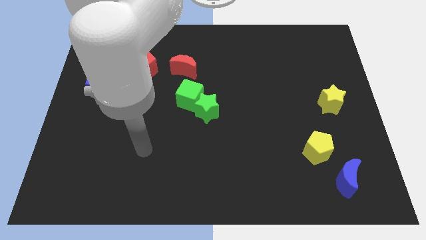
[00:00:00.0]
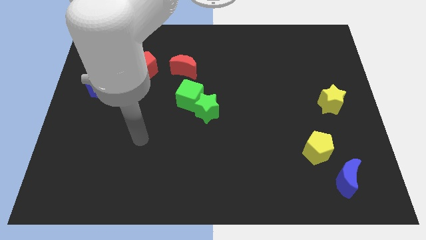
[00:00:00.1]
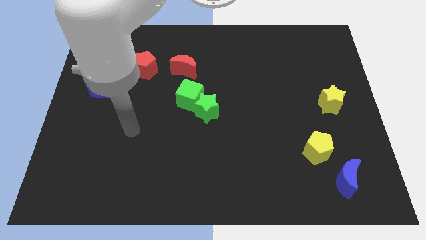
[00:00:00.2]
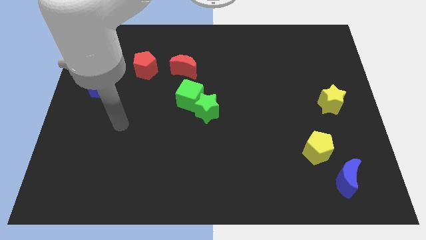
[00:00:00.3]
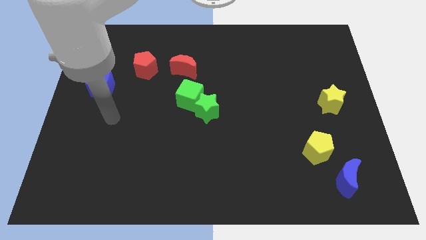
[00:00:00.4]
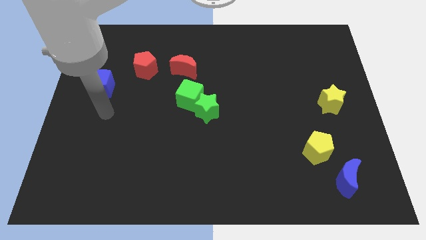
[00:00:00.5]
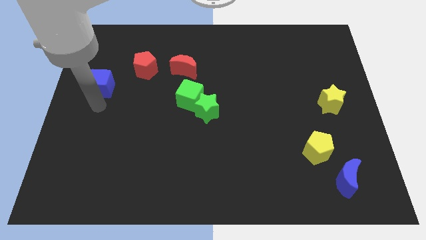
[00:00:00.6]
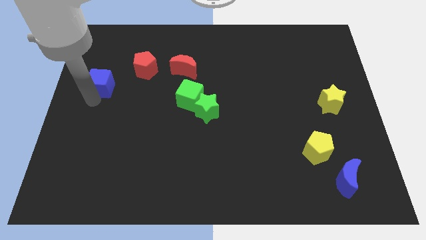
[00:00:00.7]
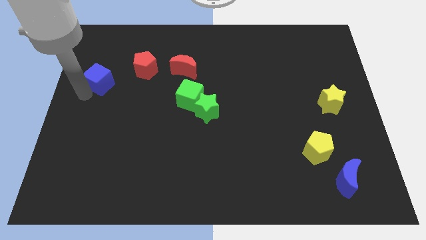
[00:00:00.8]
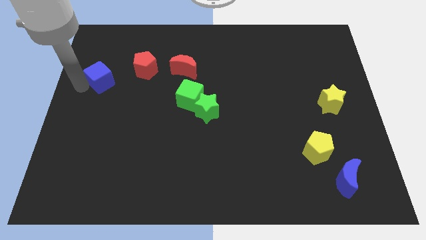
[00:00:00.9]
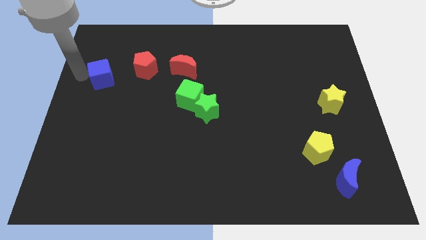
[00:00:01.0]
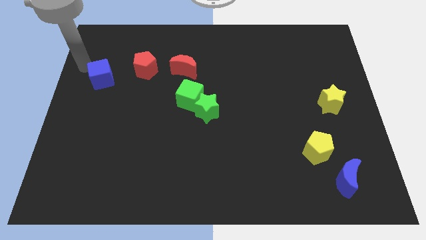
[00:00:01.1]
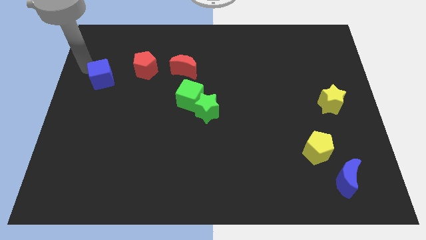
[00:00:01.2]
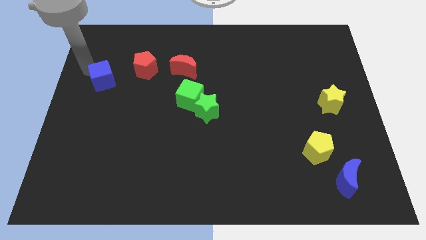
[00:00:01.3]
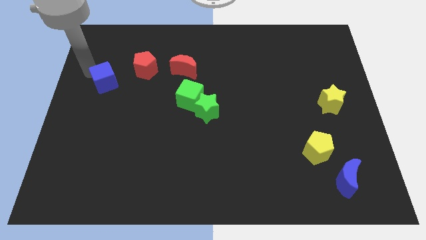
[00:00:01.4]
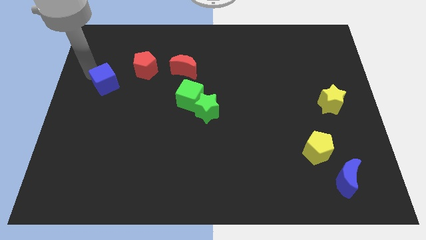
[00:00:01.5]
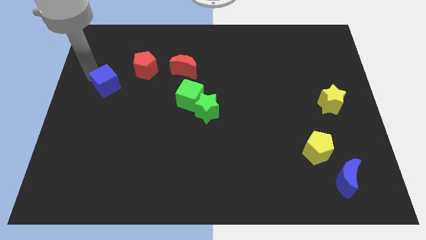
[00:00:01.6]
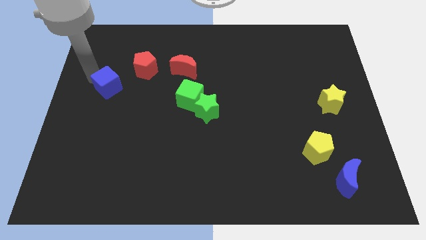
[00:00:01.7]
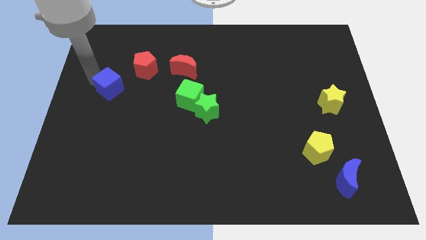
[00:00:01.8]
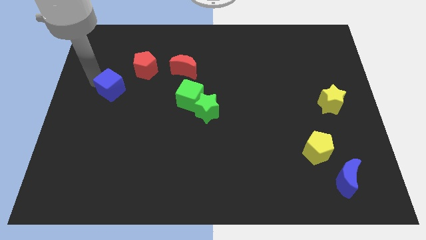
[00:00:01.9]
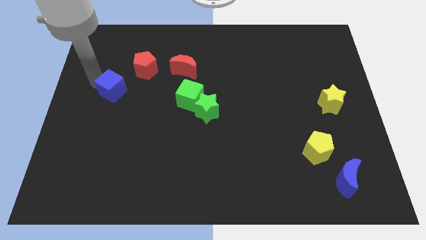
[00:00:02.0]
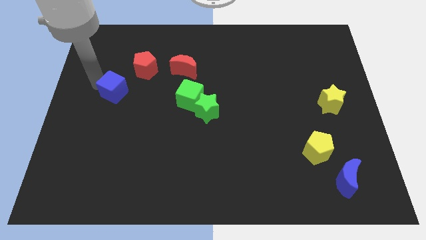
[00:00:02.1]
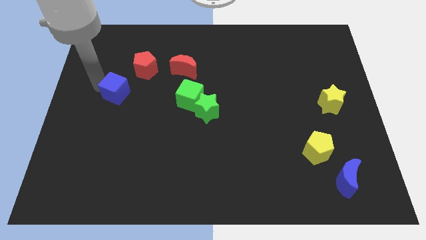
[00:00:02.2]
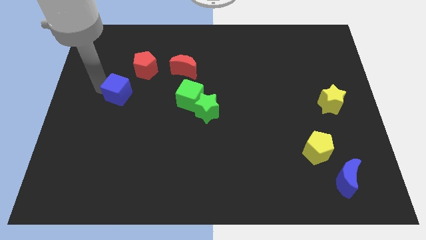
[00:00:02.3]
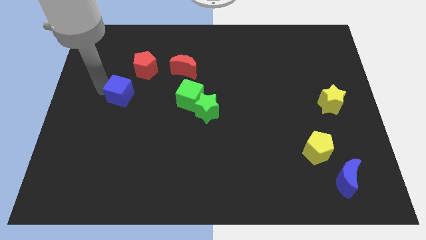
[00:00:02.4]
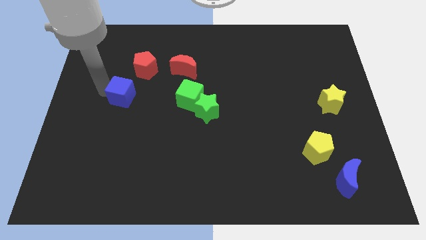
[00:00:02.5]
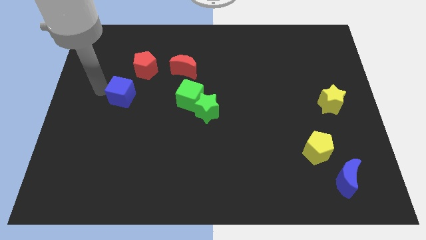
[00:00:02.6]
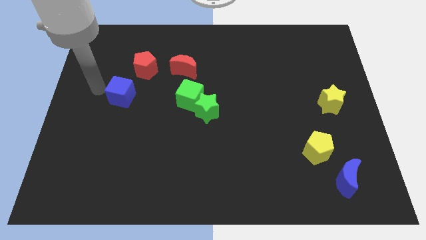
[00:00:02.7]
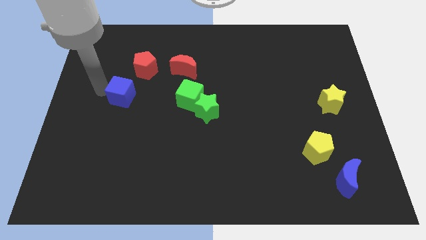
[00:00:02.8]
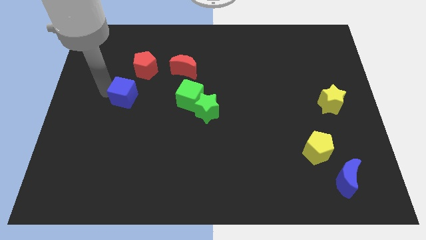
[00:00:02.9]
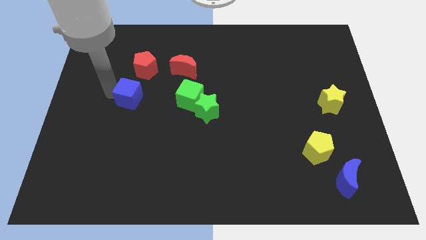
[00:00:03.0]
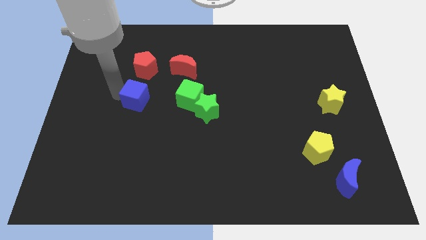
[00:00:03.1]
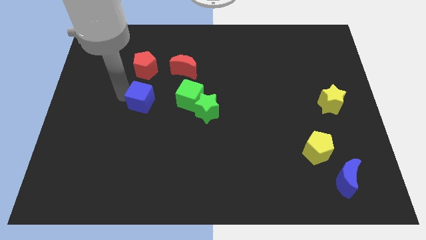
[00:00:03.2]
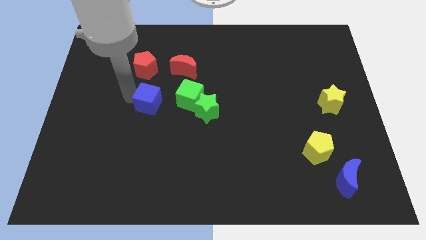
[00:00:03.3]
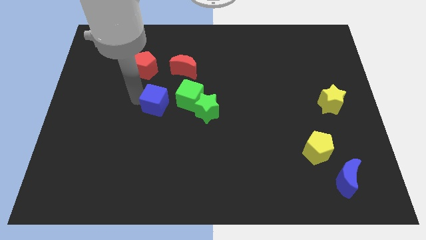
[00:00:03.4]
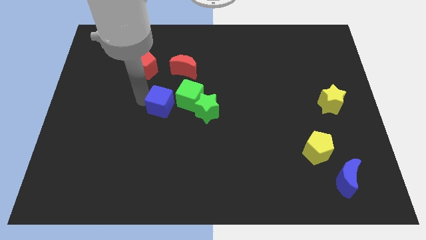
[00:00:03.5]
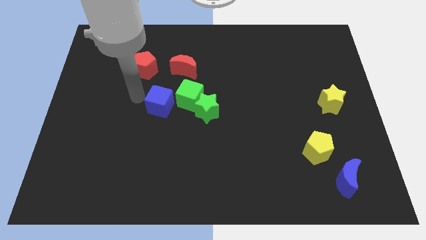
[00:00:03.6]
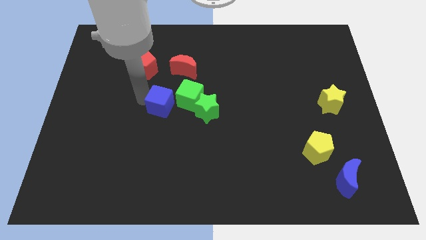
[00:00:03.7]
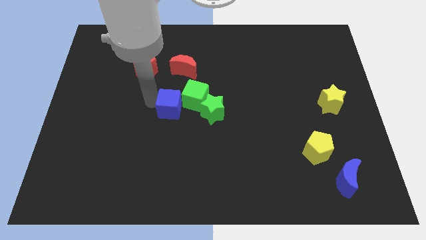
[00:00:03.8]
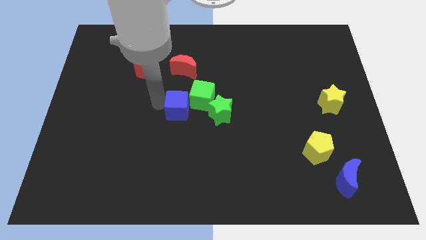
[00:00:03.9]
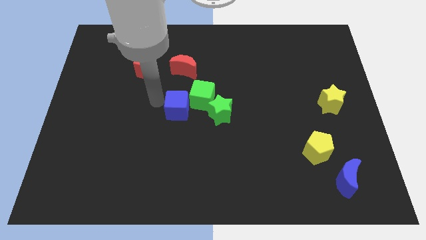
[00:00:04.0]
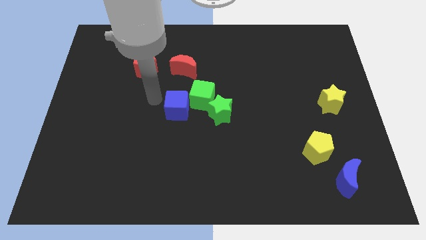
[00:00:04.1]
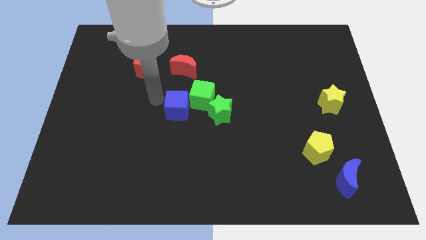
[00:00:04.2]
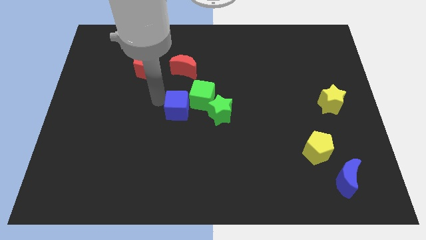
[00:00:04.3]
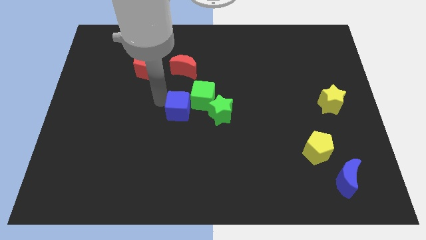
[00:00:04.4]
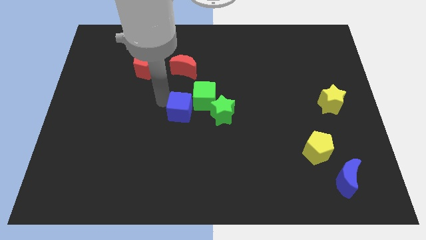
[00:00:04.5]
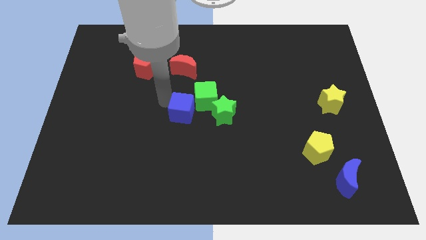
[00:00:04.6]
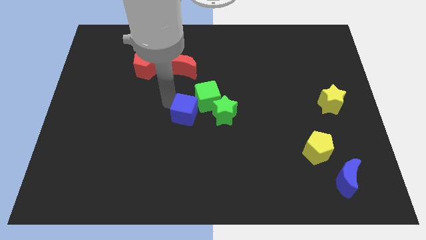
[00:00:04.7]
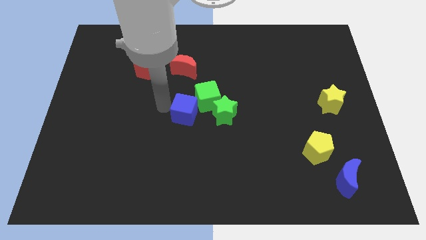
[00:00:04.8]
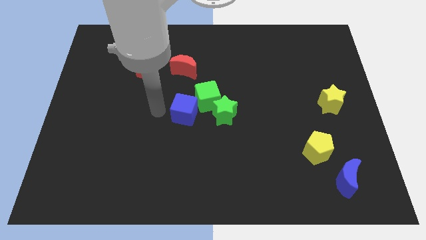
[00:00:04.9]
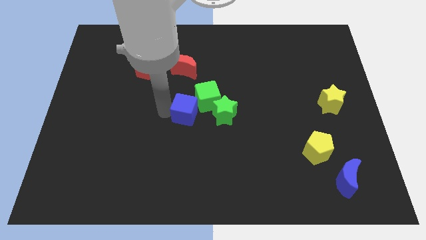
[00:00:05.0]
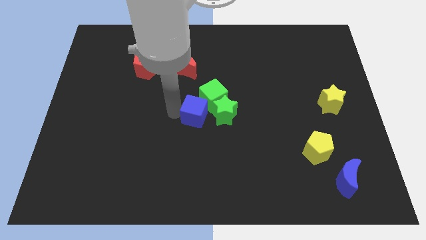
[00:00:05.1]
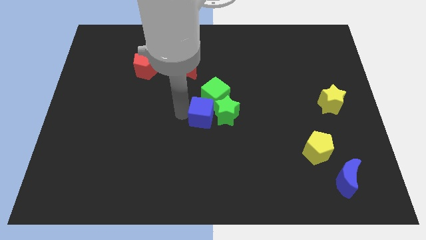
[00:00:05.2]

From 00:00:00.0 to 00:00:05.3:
push the blue cube close to the green star

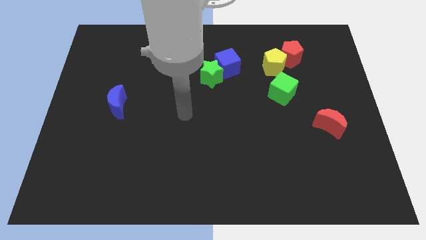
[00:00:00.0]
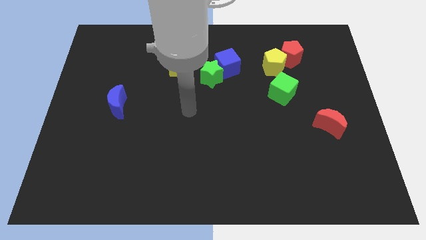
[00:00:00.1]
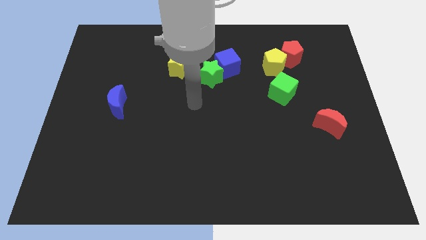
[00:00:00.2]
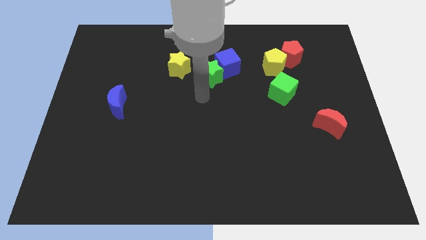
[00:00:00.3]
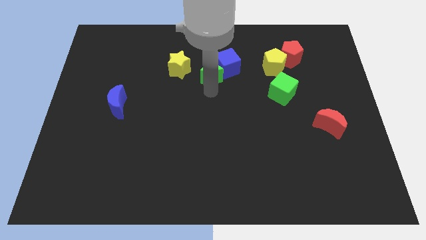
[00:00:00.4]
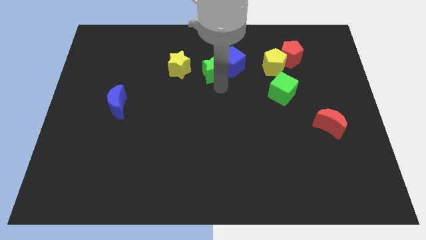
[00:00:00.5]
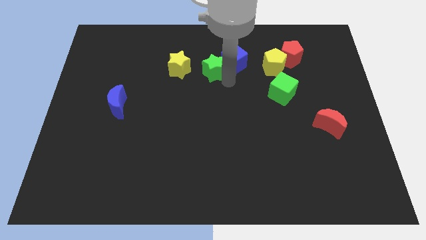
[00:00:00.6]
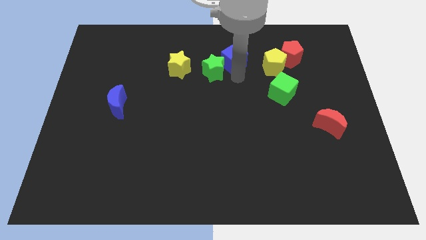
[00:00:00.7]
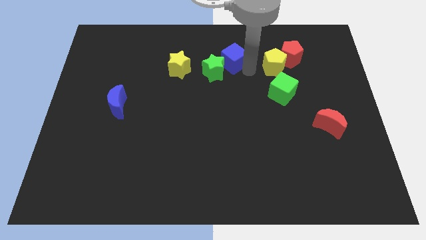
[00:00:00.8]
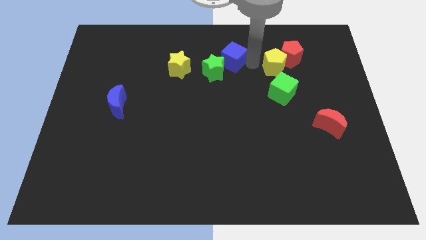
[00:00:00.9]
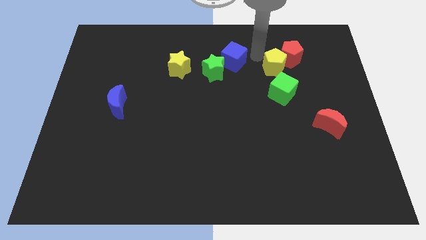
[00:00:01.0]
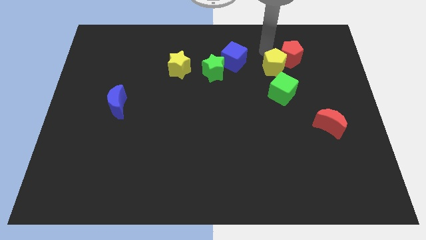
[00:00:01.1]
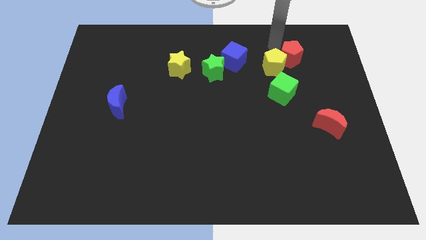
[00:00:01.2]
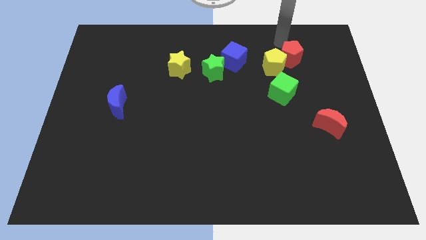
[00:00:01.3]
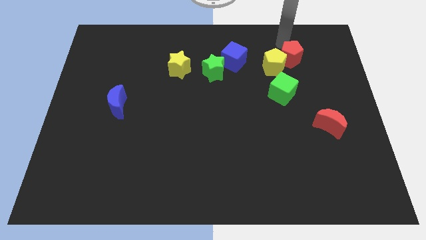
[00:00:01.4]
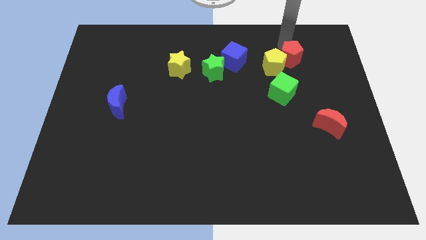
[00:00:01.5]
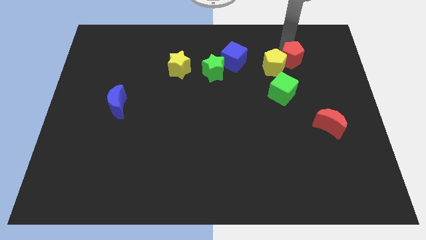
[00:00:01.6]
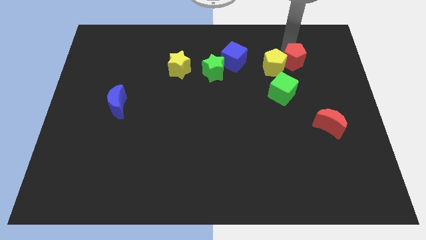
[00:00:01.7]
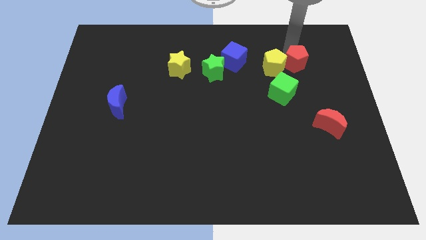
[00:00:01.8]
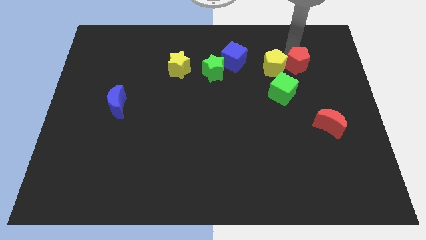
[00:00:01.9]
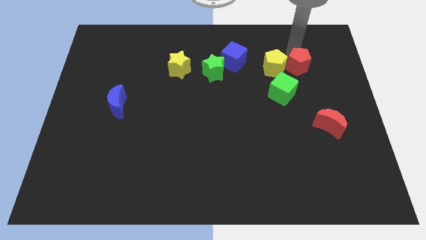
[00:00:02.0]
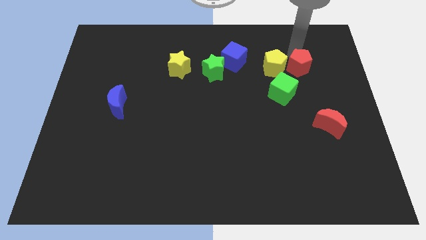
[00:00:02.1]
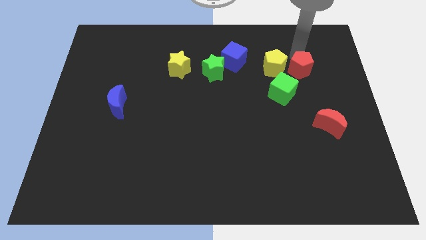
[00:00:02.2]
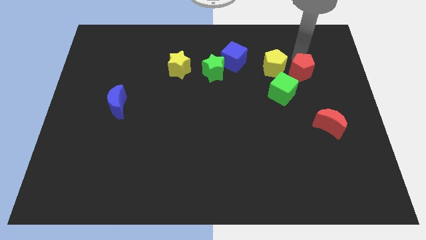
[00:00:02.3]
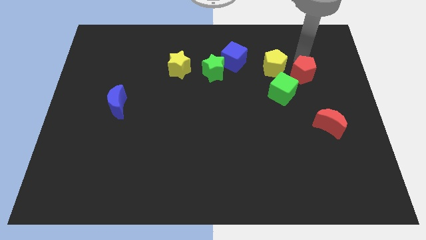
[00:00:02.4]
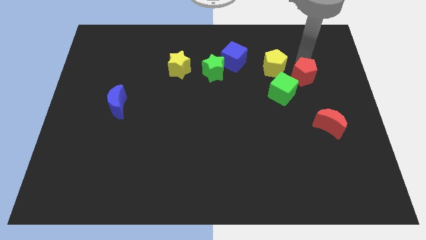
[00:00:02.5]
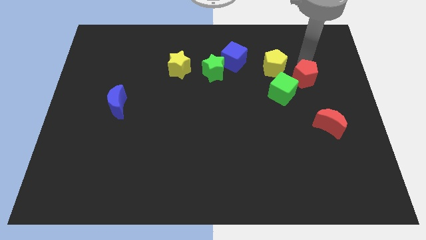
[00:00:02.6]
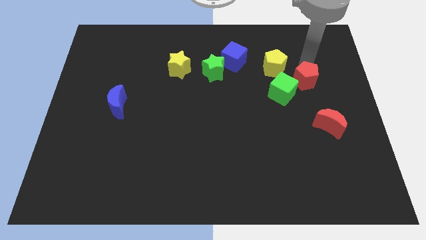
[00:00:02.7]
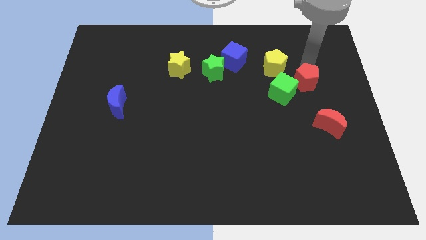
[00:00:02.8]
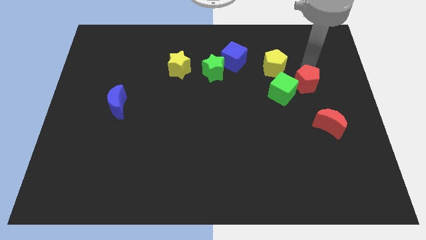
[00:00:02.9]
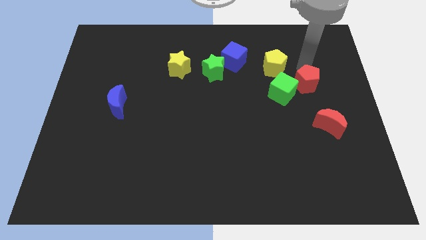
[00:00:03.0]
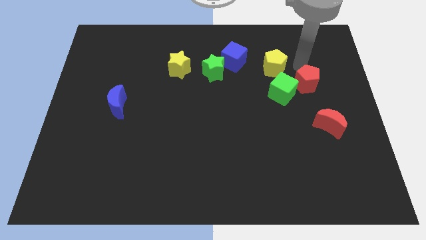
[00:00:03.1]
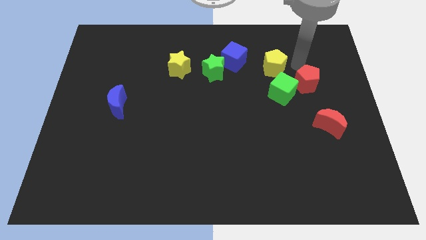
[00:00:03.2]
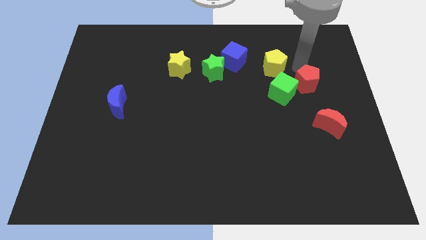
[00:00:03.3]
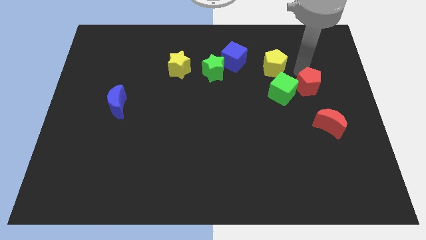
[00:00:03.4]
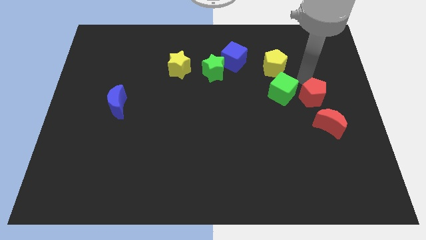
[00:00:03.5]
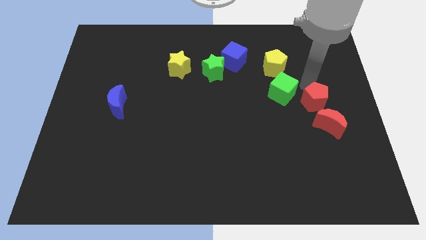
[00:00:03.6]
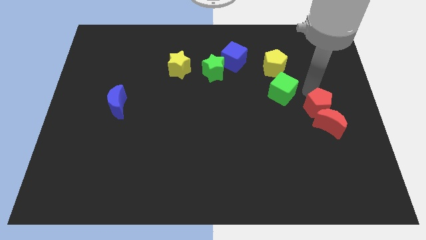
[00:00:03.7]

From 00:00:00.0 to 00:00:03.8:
push the red pentagon to the red moon
